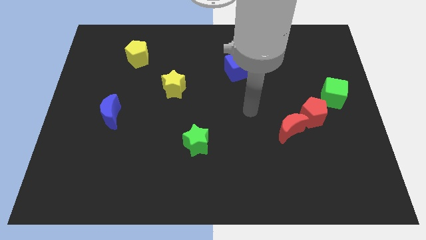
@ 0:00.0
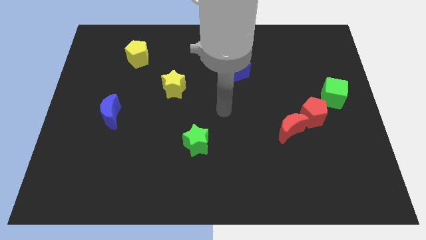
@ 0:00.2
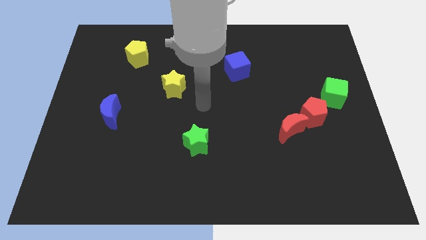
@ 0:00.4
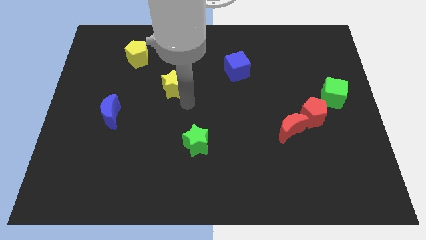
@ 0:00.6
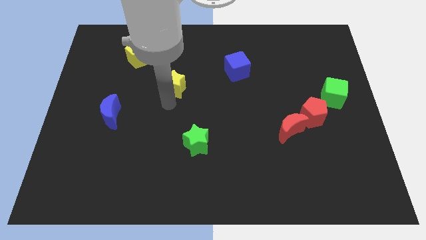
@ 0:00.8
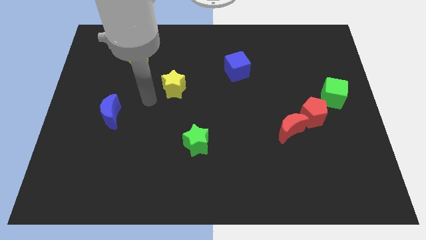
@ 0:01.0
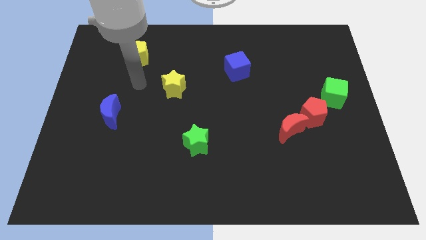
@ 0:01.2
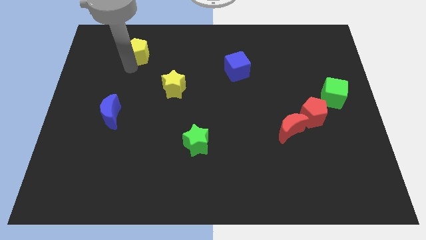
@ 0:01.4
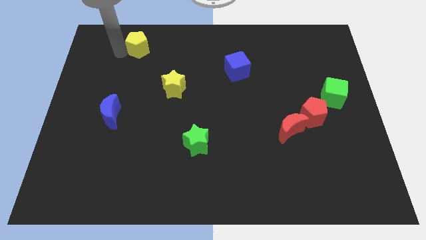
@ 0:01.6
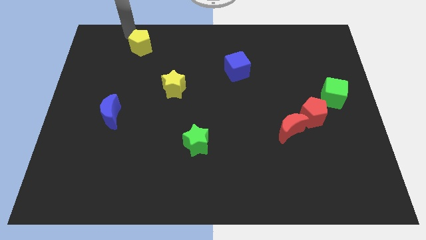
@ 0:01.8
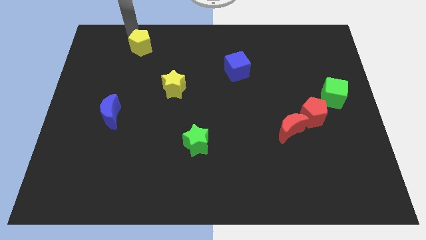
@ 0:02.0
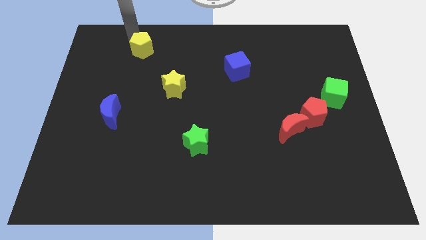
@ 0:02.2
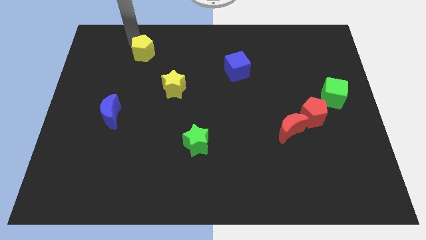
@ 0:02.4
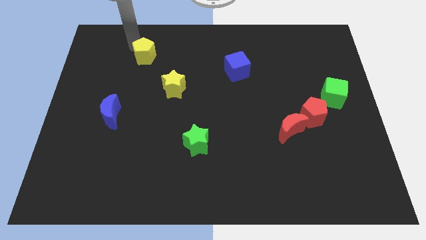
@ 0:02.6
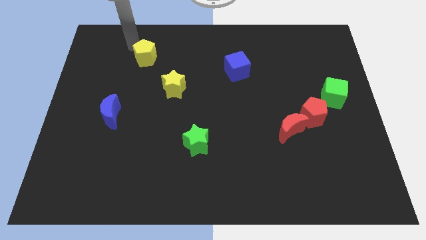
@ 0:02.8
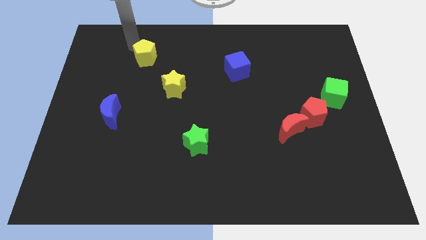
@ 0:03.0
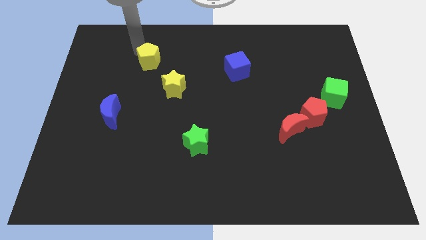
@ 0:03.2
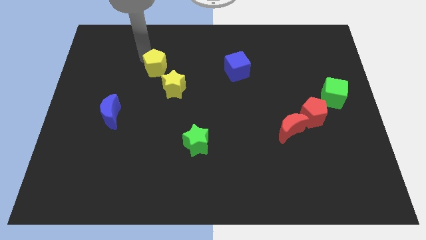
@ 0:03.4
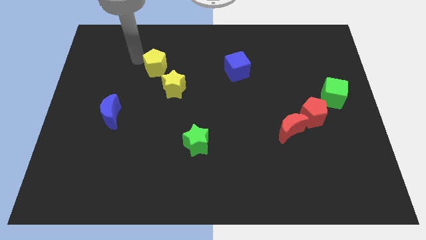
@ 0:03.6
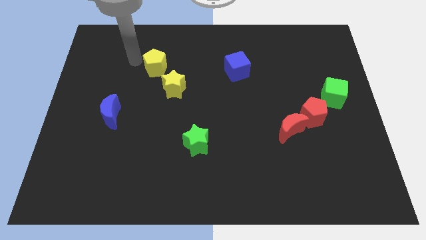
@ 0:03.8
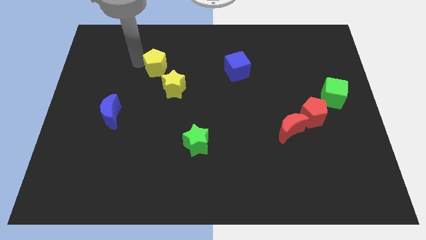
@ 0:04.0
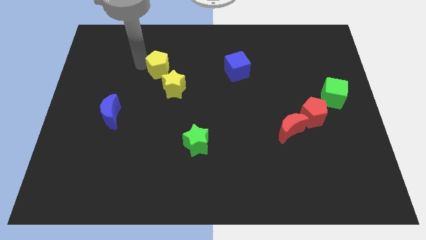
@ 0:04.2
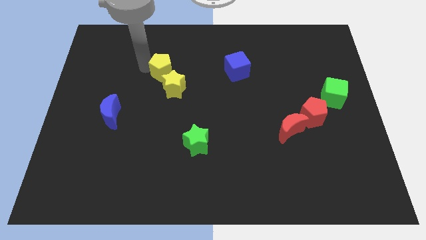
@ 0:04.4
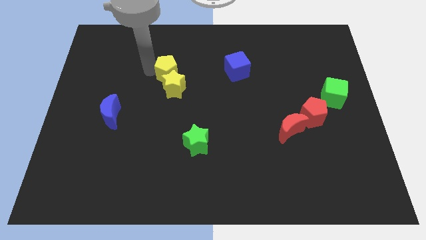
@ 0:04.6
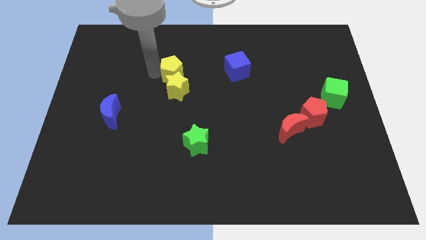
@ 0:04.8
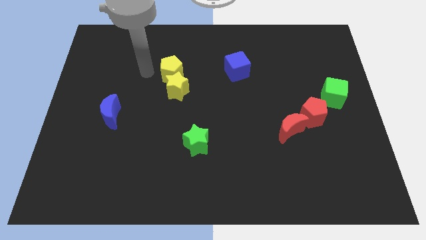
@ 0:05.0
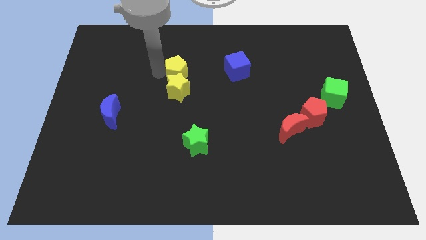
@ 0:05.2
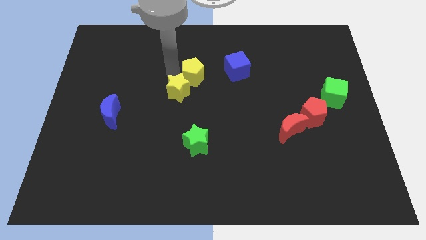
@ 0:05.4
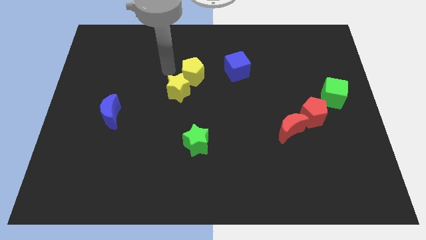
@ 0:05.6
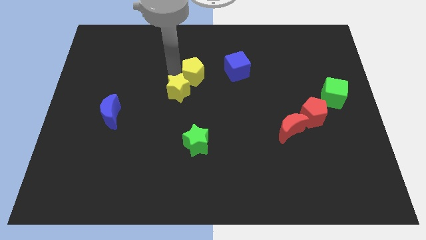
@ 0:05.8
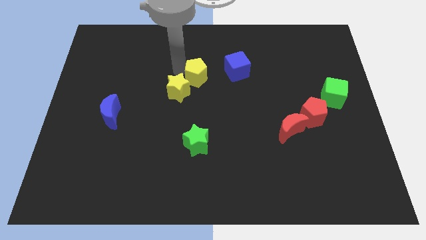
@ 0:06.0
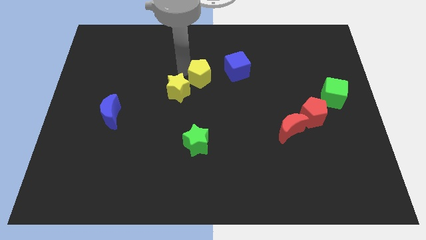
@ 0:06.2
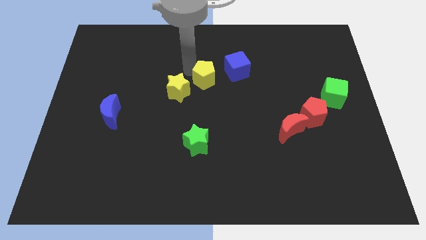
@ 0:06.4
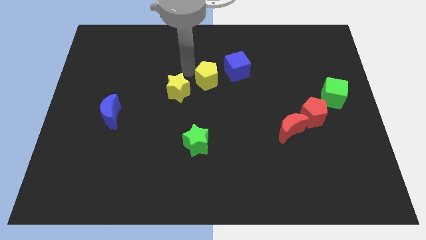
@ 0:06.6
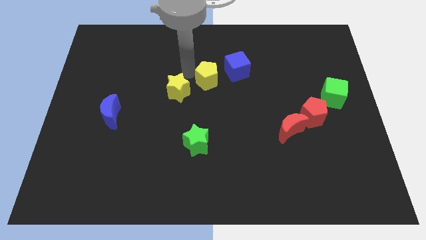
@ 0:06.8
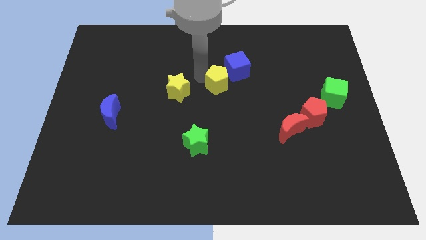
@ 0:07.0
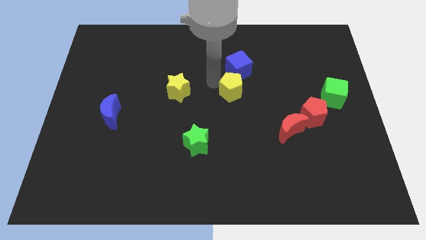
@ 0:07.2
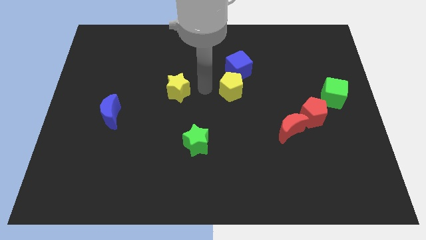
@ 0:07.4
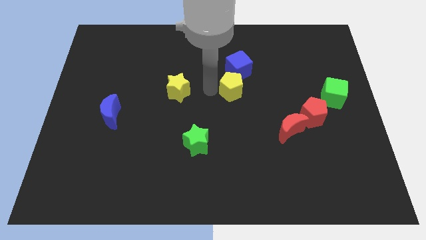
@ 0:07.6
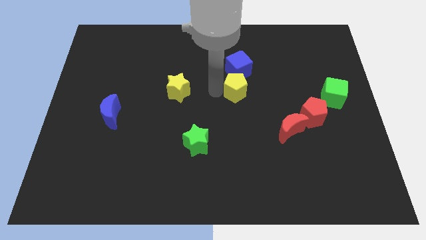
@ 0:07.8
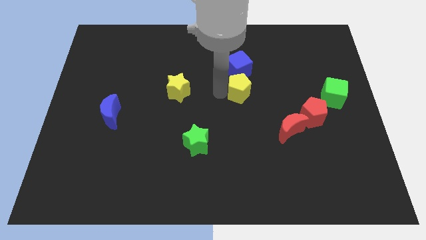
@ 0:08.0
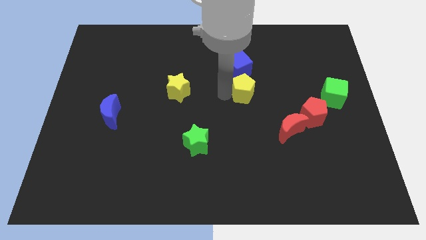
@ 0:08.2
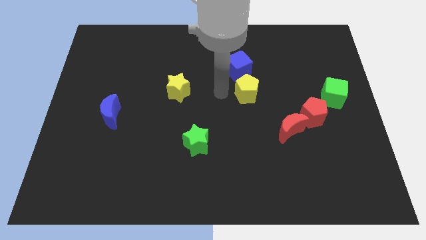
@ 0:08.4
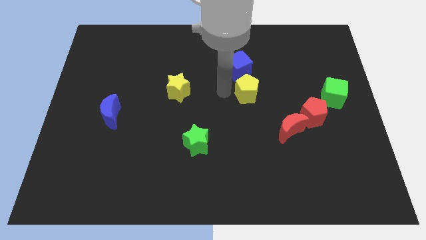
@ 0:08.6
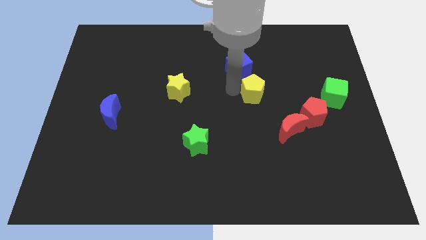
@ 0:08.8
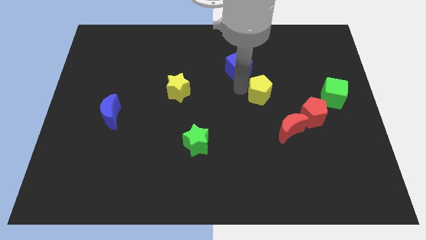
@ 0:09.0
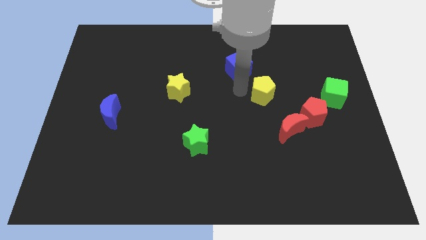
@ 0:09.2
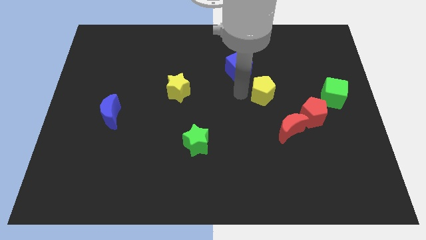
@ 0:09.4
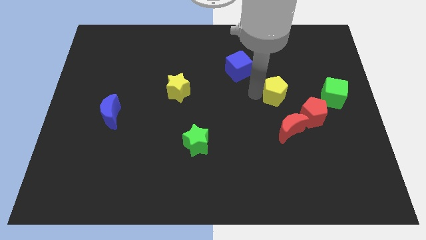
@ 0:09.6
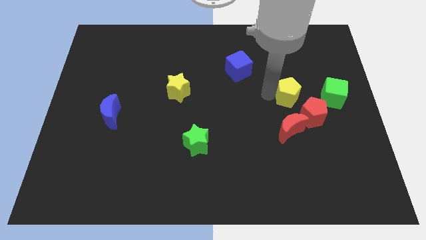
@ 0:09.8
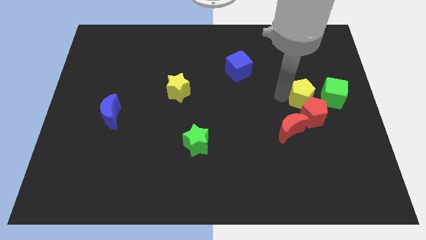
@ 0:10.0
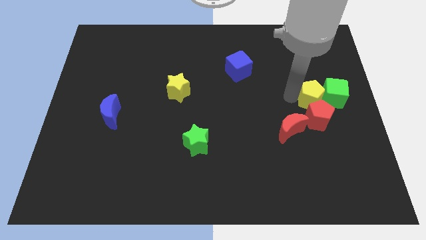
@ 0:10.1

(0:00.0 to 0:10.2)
put the yellow pentagon close to the green cube
